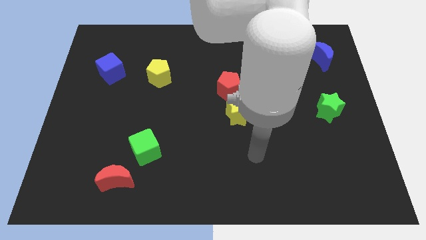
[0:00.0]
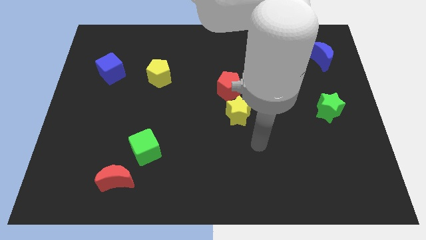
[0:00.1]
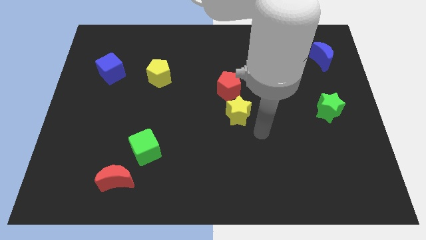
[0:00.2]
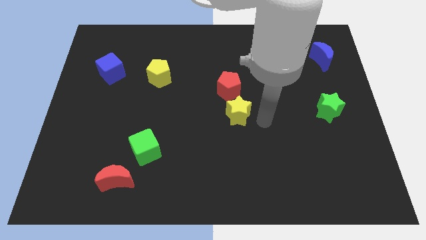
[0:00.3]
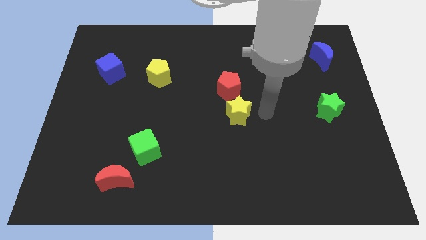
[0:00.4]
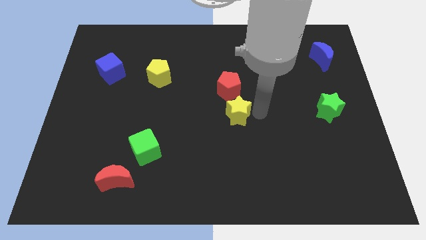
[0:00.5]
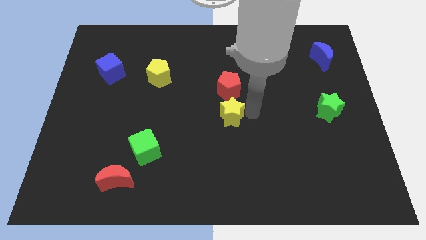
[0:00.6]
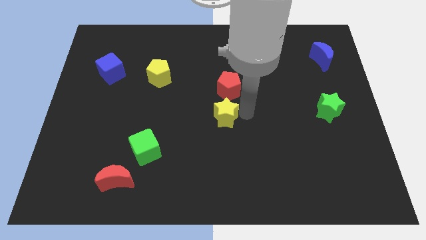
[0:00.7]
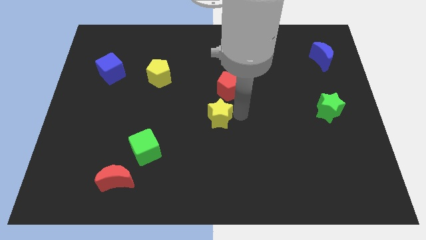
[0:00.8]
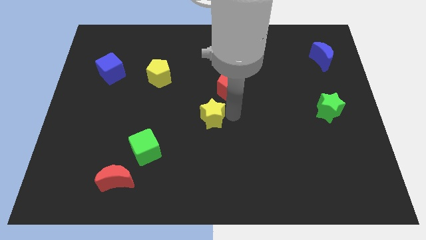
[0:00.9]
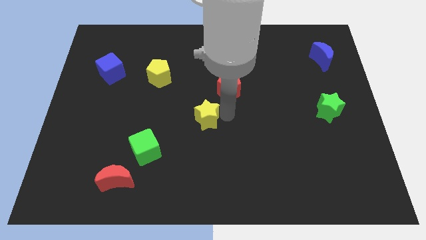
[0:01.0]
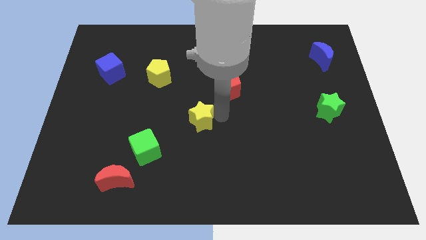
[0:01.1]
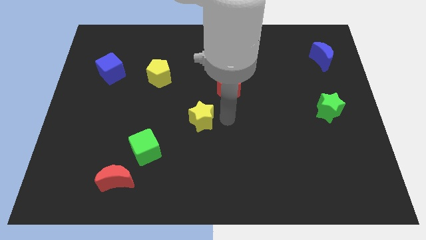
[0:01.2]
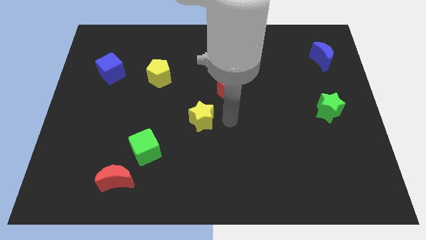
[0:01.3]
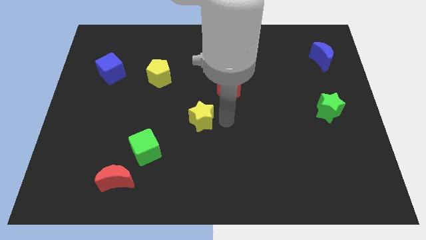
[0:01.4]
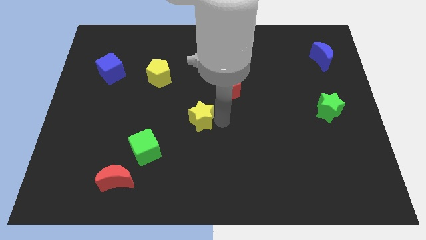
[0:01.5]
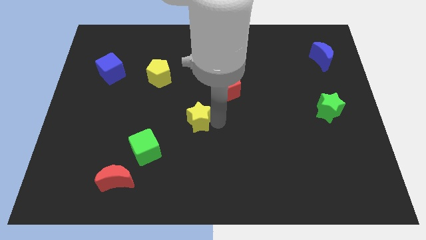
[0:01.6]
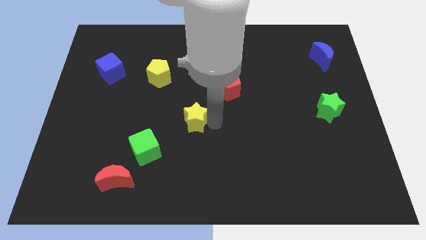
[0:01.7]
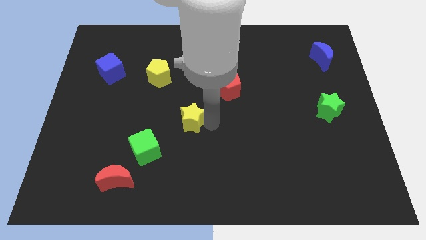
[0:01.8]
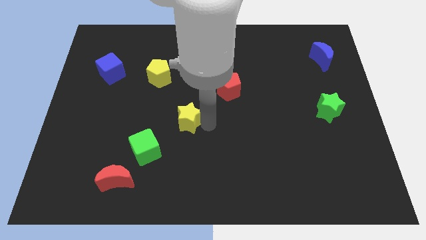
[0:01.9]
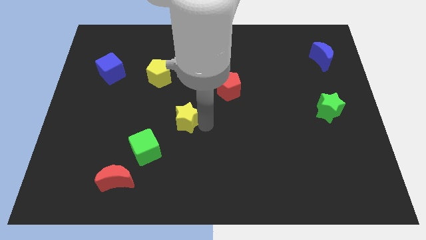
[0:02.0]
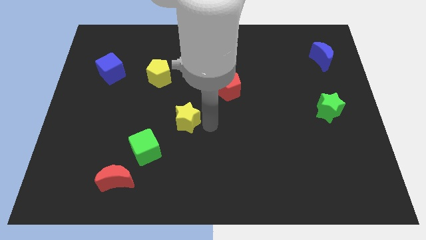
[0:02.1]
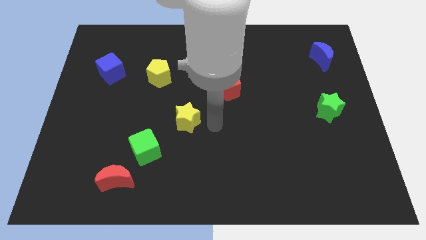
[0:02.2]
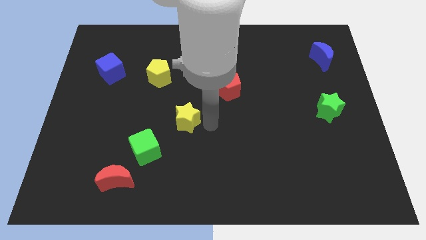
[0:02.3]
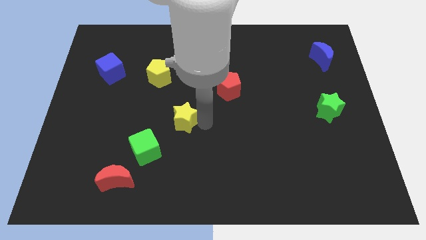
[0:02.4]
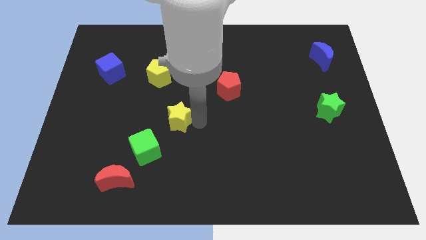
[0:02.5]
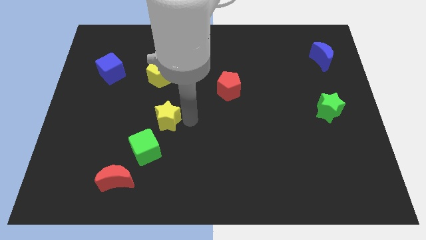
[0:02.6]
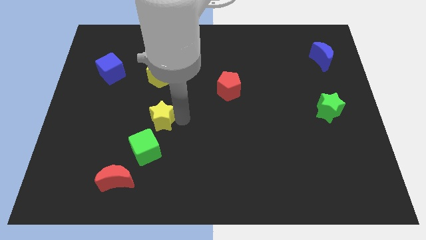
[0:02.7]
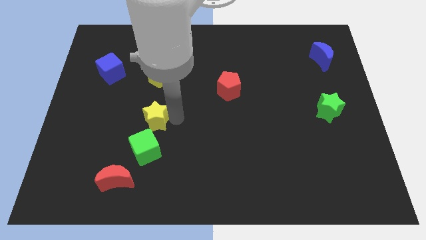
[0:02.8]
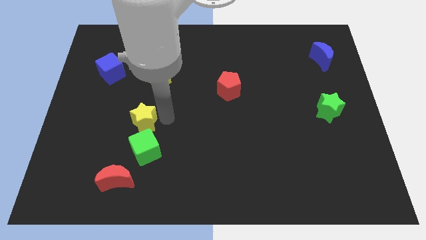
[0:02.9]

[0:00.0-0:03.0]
push the yellow star to the left

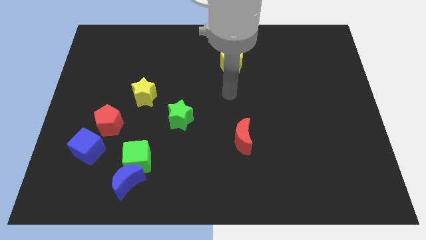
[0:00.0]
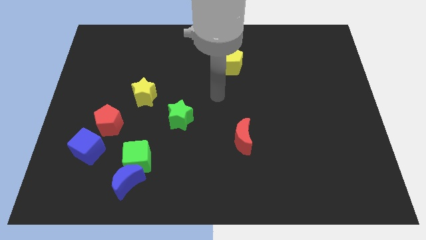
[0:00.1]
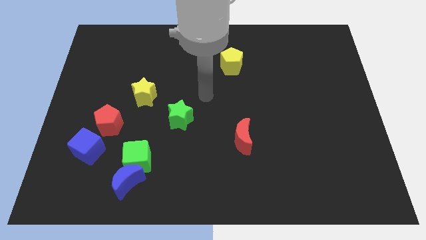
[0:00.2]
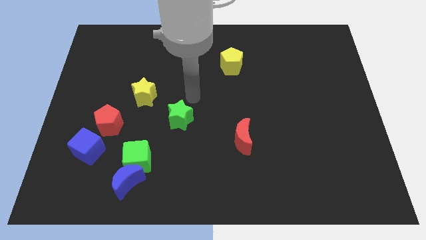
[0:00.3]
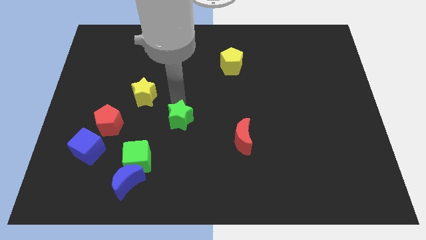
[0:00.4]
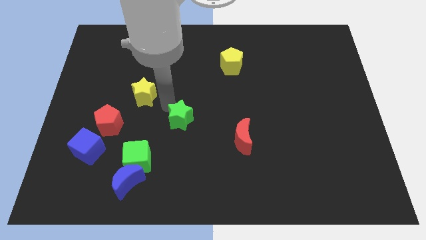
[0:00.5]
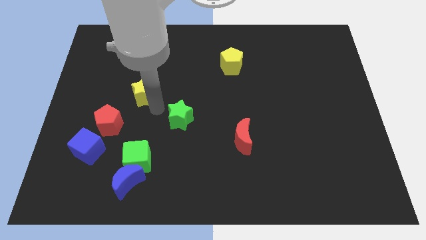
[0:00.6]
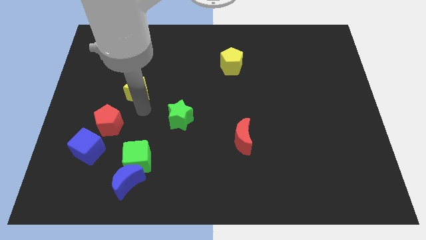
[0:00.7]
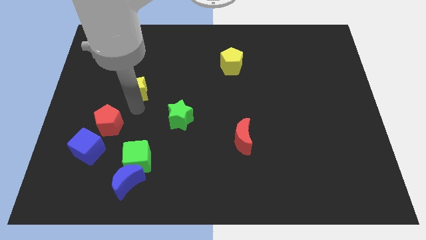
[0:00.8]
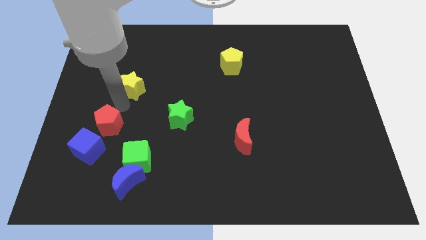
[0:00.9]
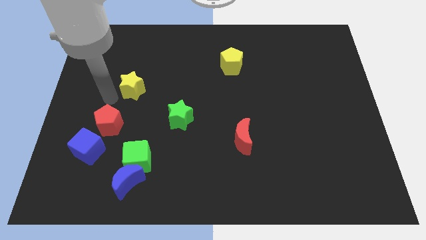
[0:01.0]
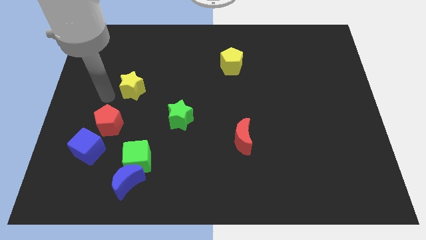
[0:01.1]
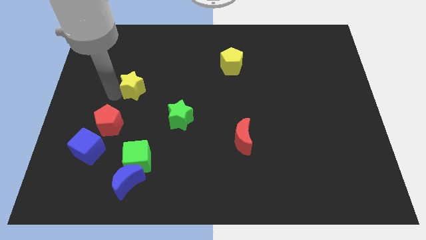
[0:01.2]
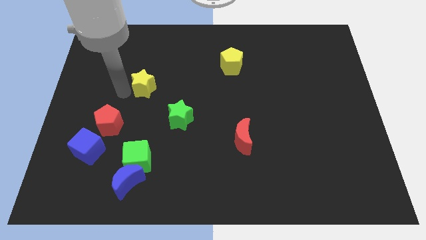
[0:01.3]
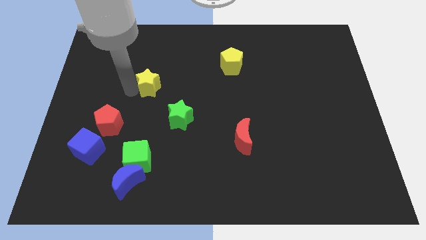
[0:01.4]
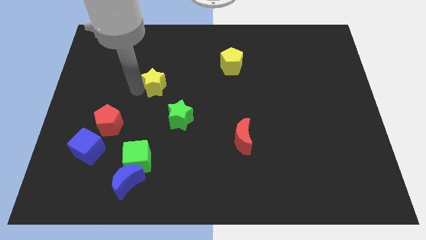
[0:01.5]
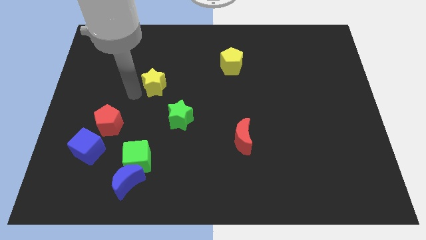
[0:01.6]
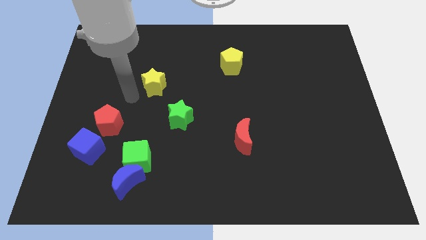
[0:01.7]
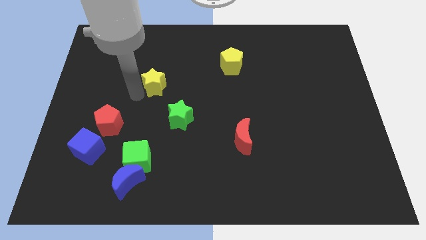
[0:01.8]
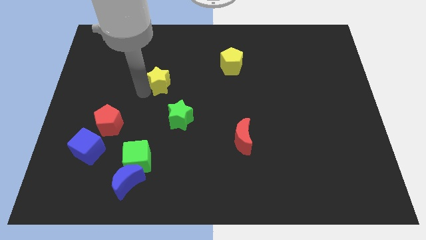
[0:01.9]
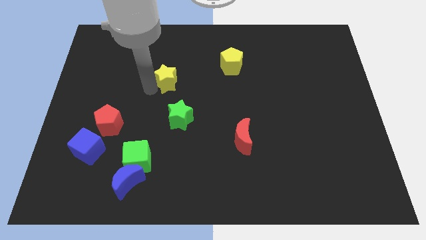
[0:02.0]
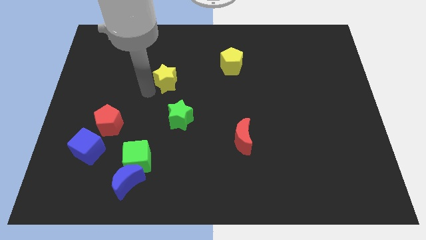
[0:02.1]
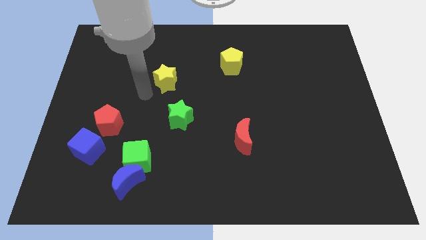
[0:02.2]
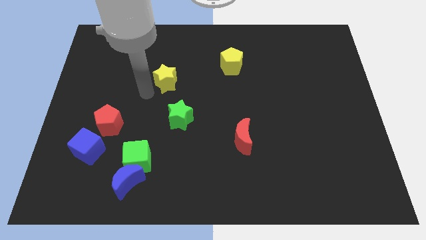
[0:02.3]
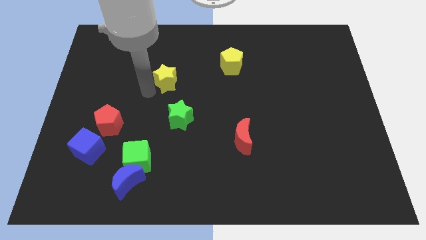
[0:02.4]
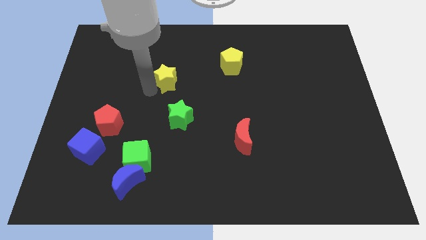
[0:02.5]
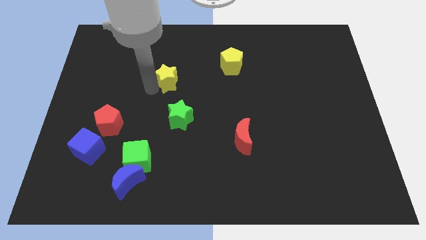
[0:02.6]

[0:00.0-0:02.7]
slide the yellow star up and then to the right a bit

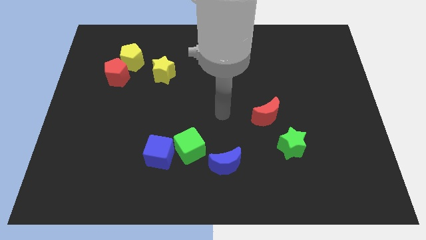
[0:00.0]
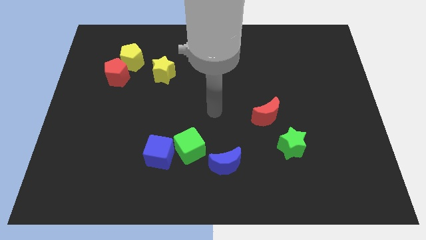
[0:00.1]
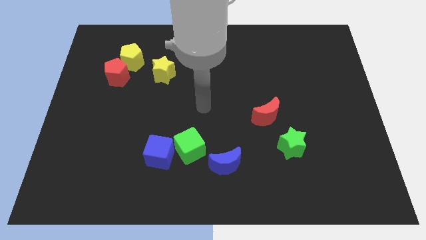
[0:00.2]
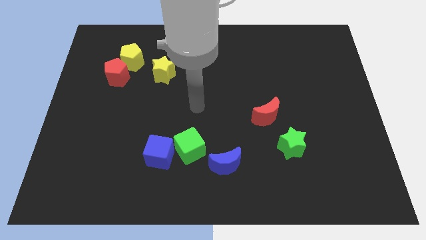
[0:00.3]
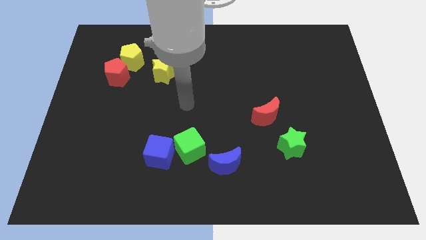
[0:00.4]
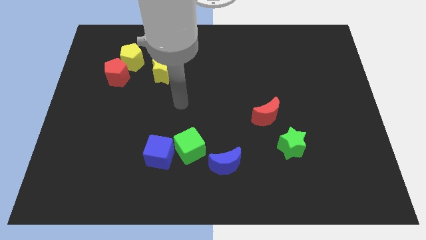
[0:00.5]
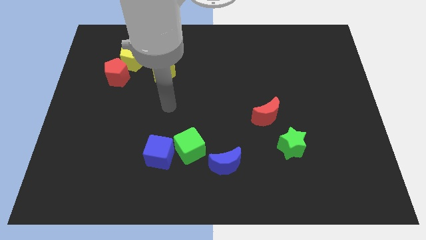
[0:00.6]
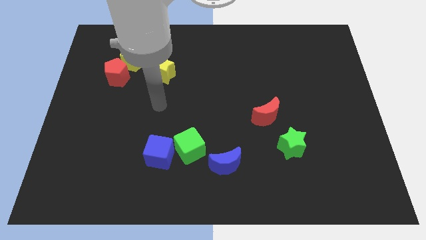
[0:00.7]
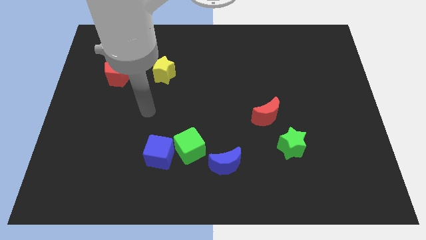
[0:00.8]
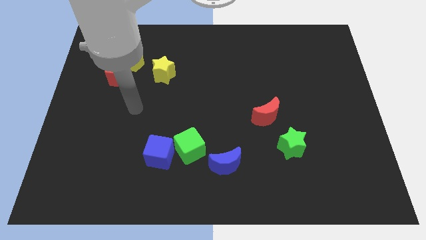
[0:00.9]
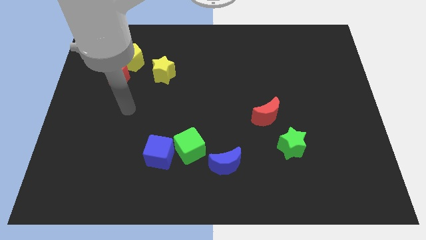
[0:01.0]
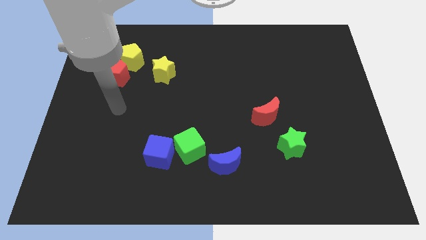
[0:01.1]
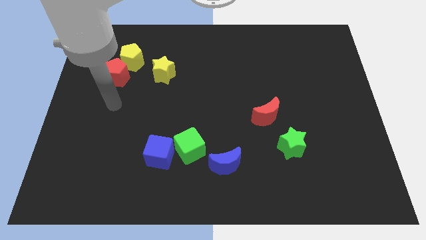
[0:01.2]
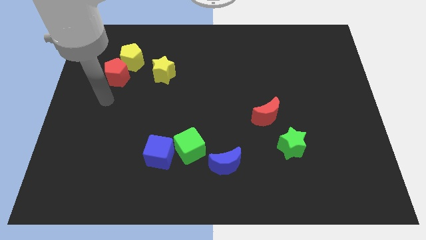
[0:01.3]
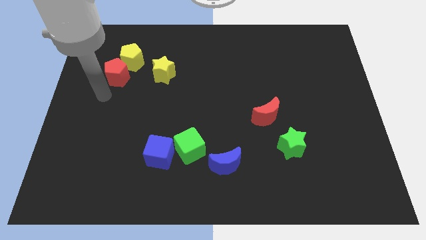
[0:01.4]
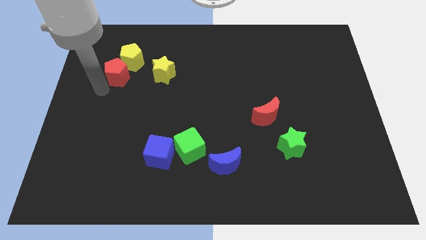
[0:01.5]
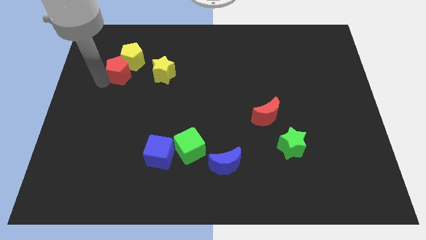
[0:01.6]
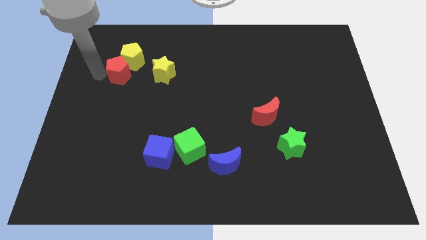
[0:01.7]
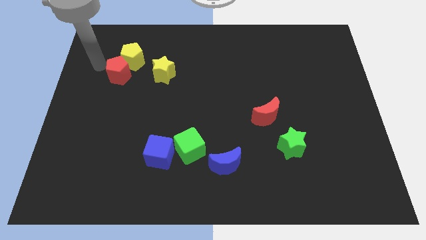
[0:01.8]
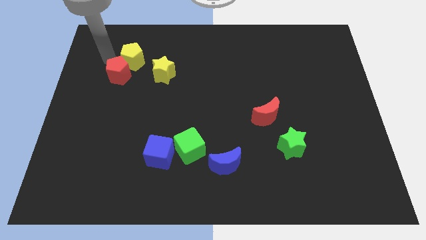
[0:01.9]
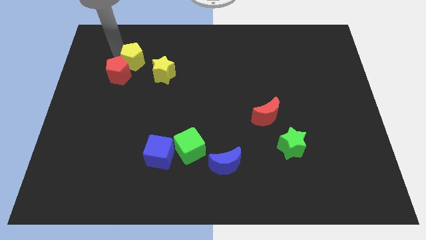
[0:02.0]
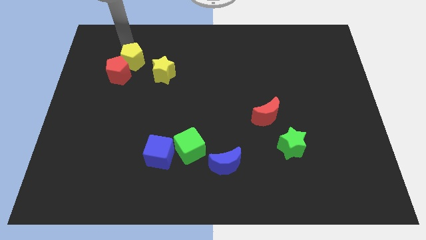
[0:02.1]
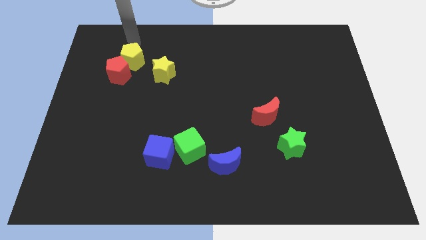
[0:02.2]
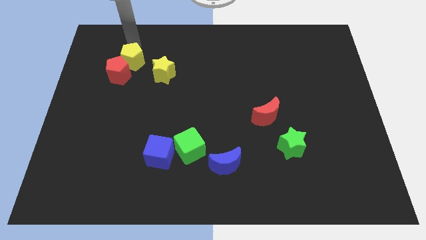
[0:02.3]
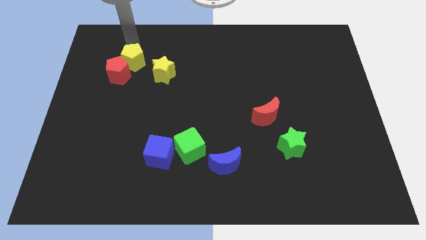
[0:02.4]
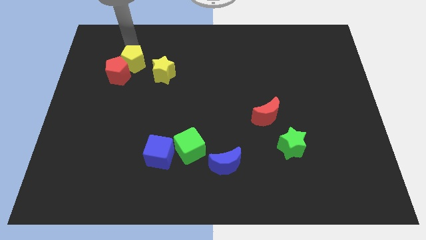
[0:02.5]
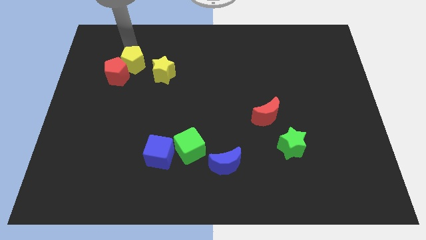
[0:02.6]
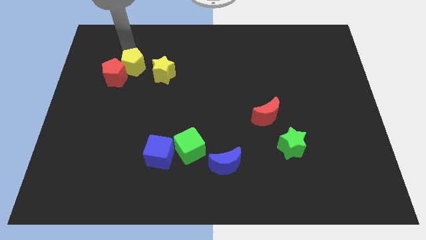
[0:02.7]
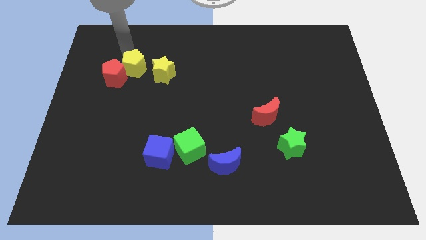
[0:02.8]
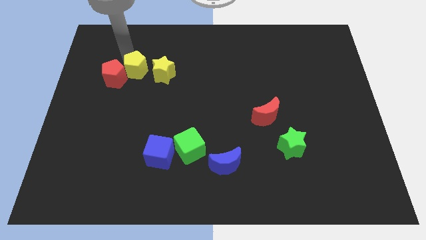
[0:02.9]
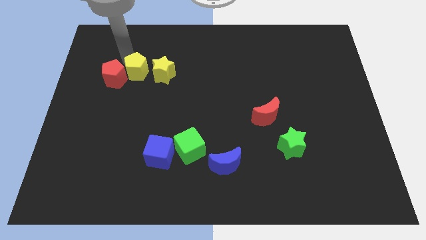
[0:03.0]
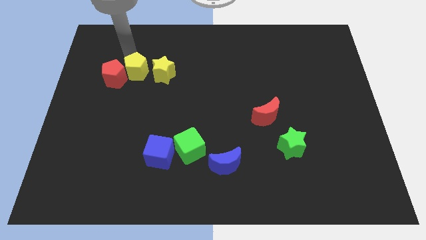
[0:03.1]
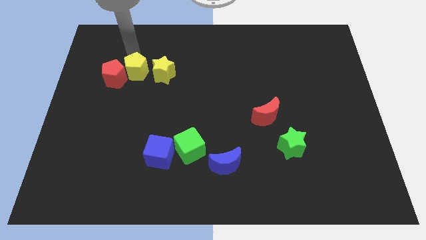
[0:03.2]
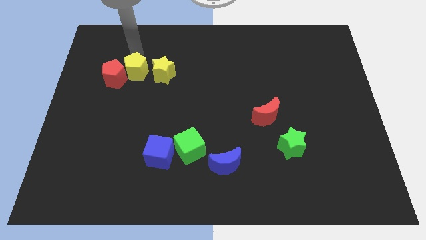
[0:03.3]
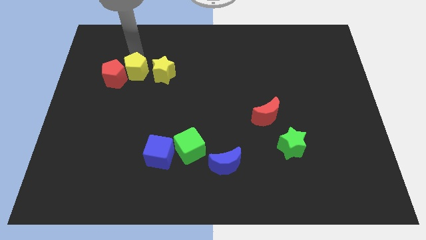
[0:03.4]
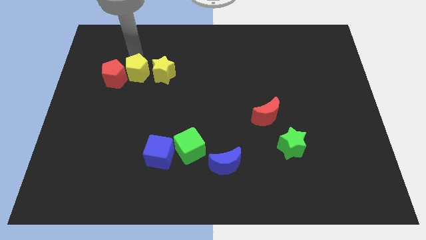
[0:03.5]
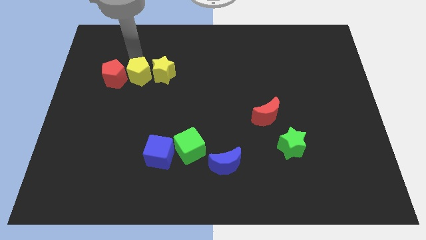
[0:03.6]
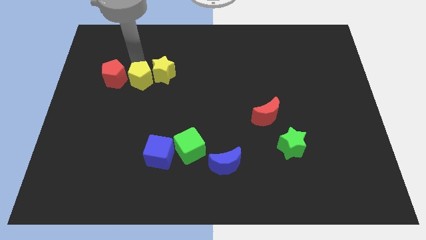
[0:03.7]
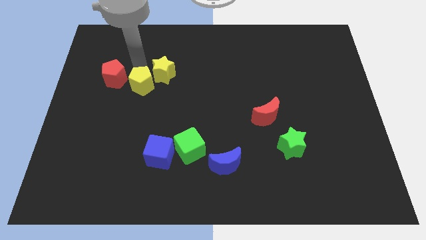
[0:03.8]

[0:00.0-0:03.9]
move the yellow pentagon slightly down
